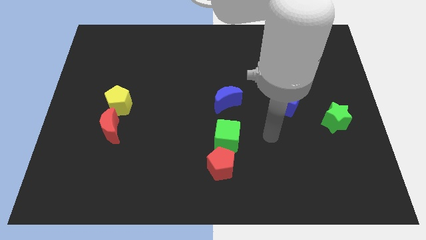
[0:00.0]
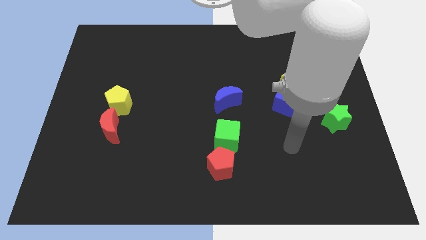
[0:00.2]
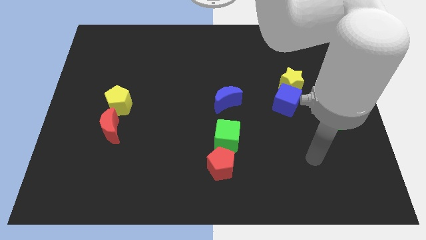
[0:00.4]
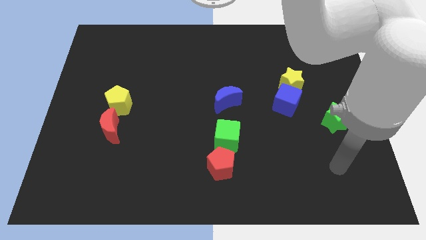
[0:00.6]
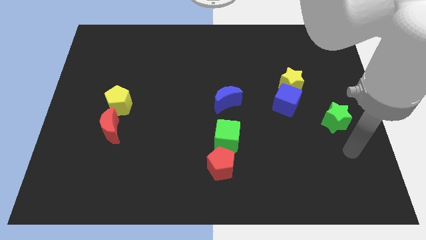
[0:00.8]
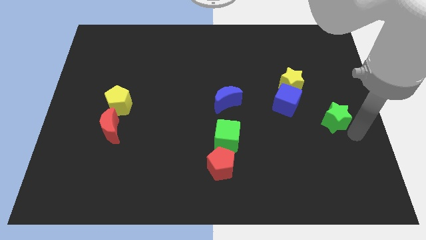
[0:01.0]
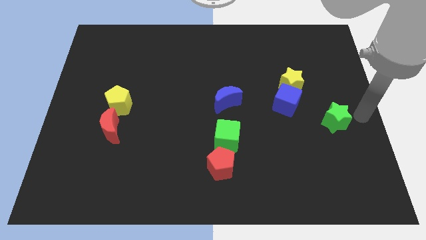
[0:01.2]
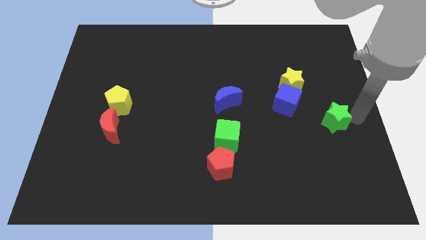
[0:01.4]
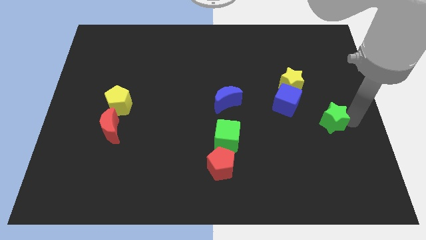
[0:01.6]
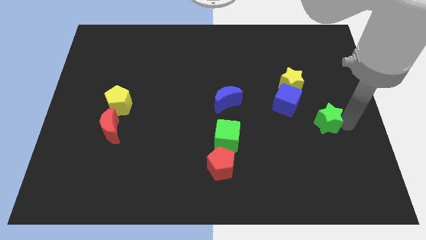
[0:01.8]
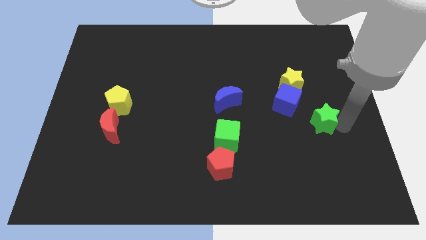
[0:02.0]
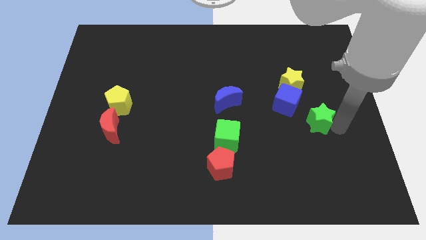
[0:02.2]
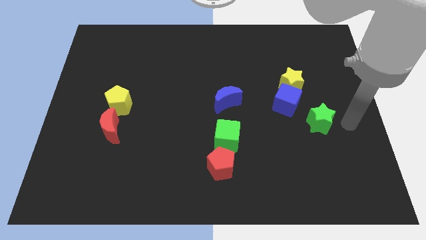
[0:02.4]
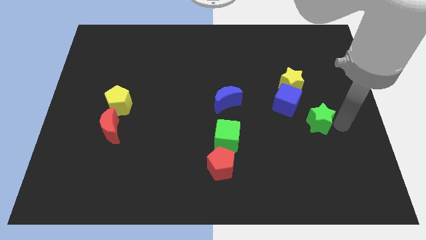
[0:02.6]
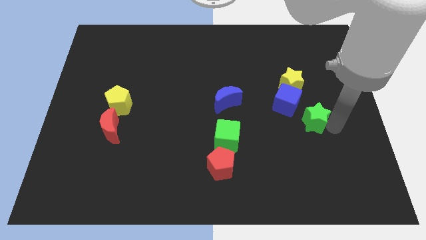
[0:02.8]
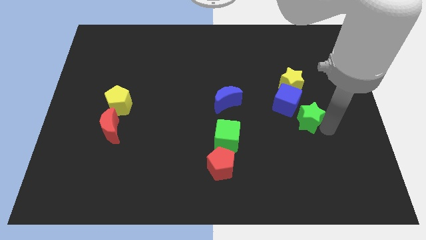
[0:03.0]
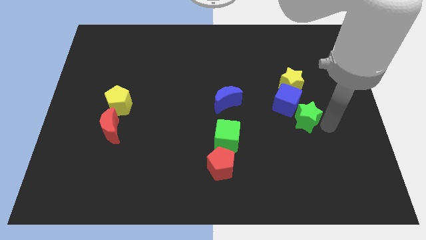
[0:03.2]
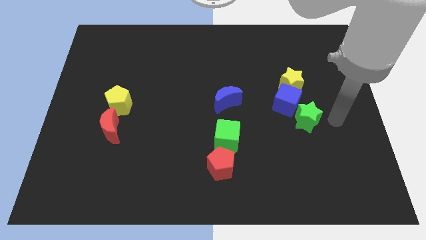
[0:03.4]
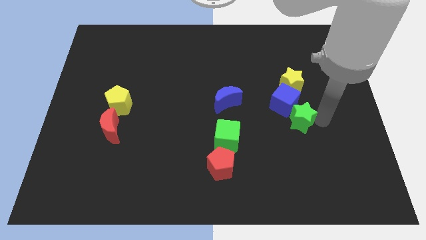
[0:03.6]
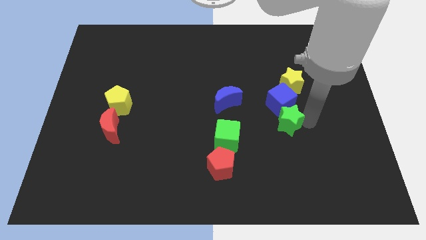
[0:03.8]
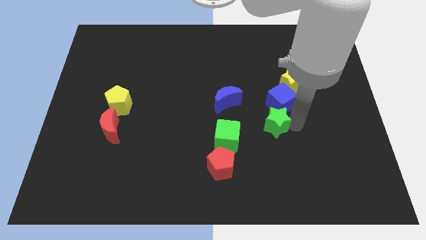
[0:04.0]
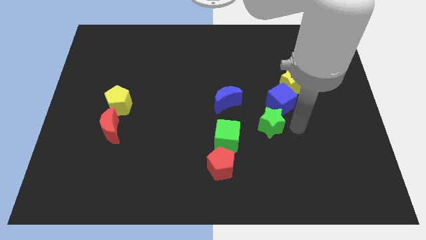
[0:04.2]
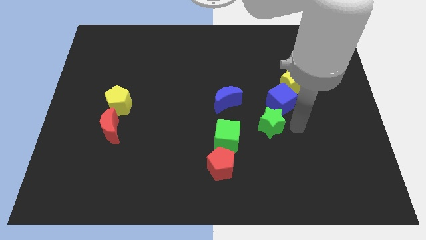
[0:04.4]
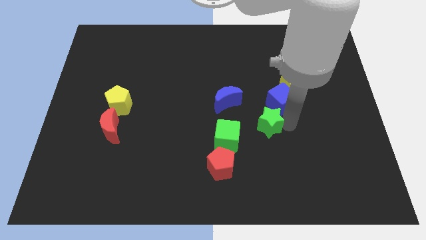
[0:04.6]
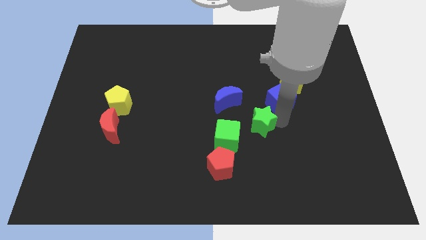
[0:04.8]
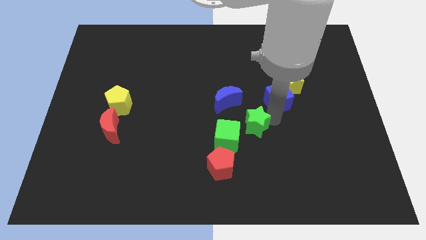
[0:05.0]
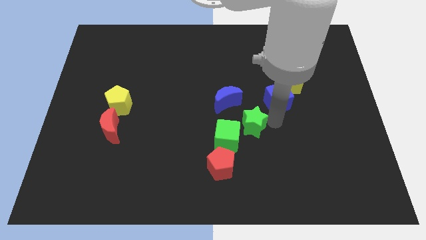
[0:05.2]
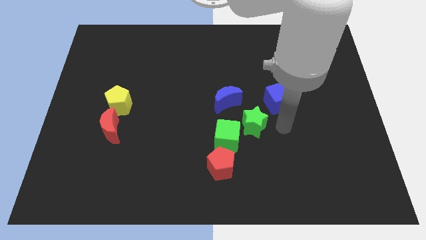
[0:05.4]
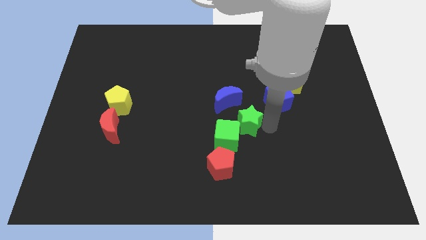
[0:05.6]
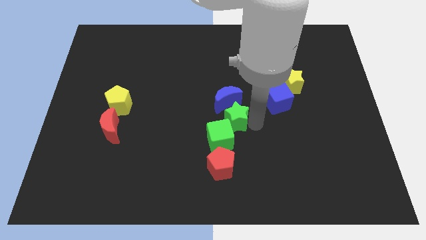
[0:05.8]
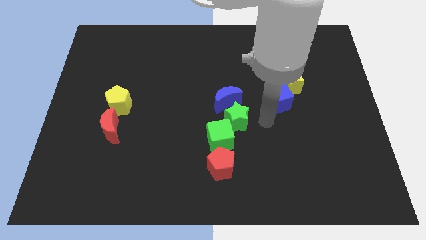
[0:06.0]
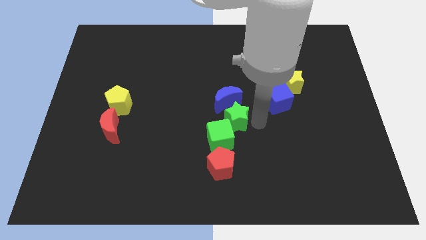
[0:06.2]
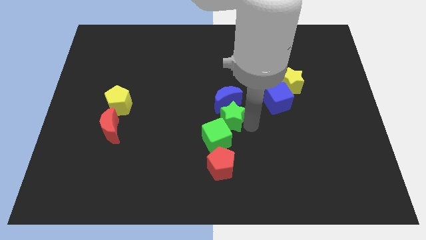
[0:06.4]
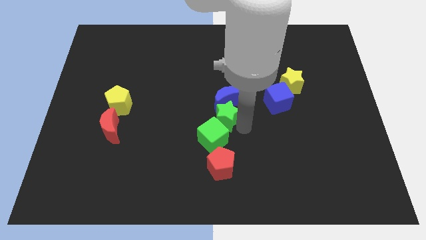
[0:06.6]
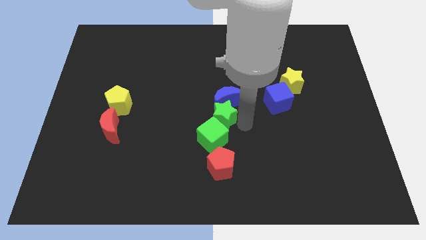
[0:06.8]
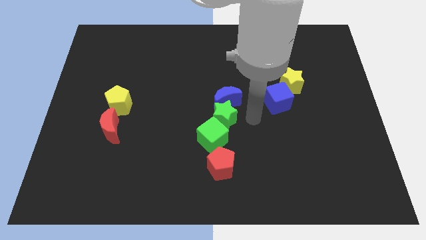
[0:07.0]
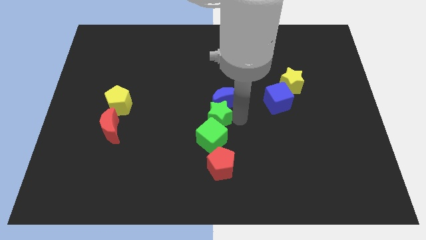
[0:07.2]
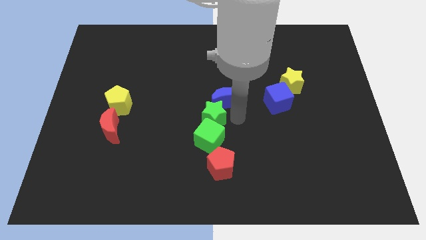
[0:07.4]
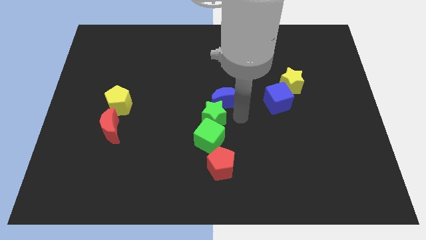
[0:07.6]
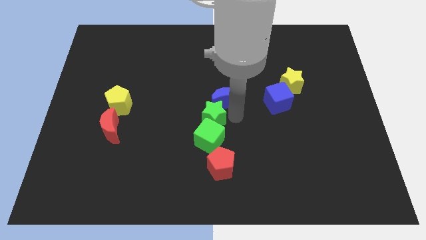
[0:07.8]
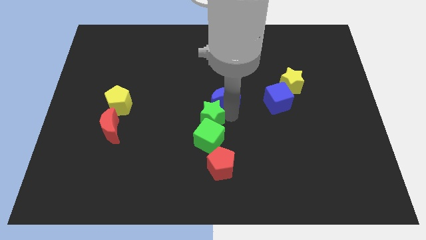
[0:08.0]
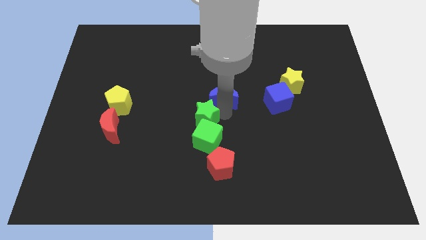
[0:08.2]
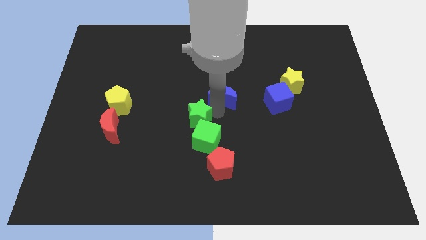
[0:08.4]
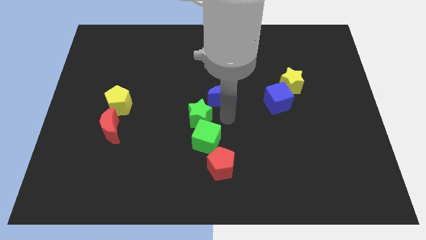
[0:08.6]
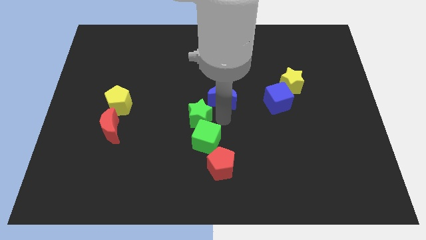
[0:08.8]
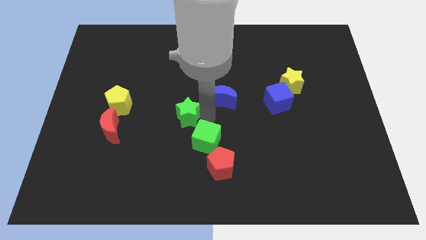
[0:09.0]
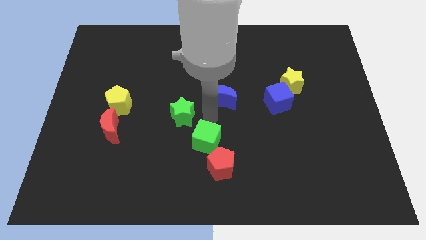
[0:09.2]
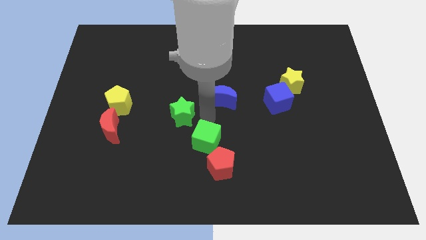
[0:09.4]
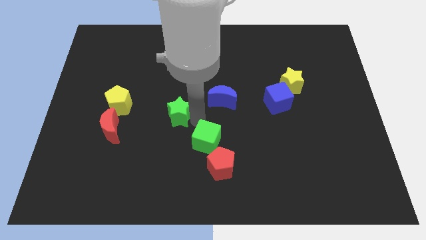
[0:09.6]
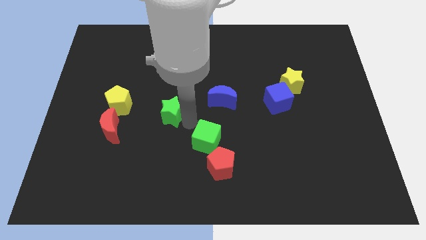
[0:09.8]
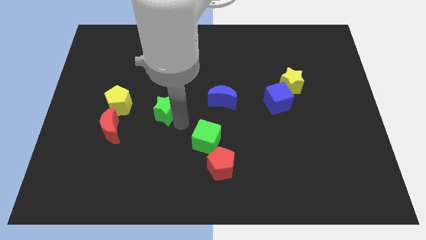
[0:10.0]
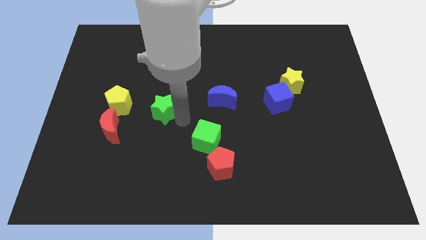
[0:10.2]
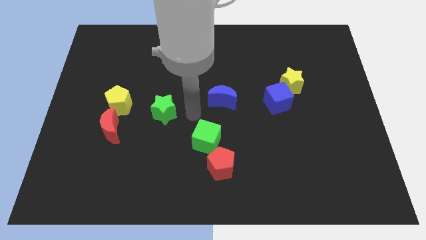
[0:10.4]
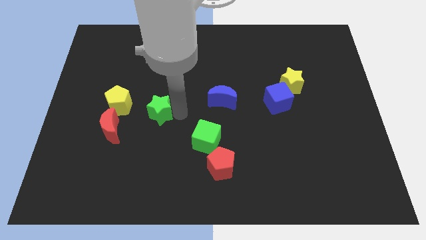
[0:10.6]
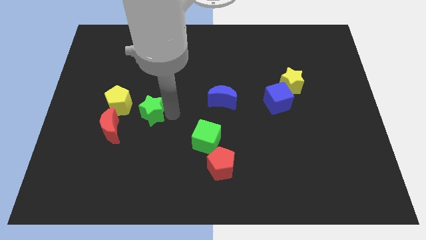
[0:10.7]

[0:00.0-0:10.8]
slide the green star to the top right of the red moon

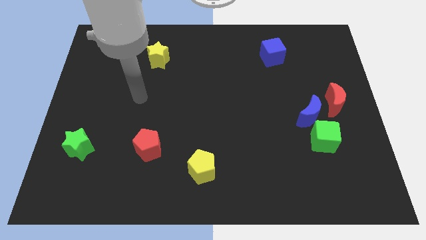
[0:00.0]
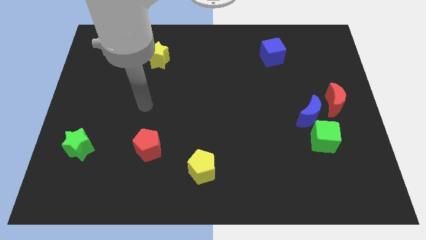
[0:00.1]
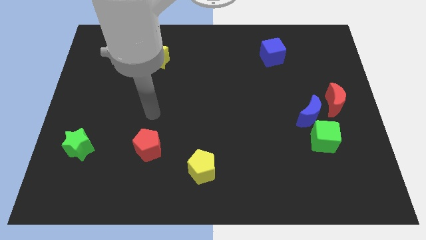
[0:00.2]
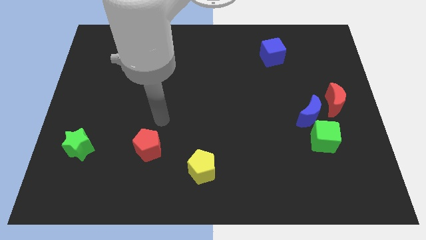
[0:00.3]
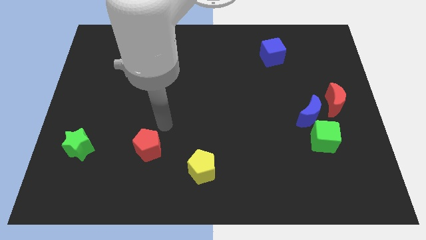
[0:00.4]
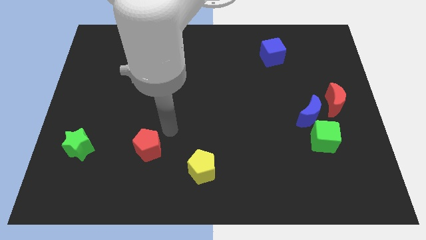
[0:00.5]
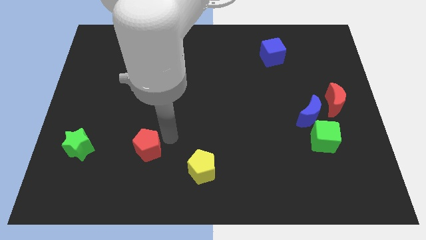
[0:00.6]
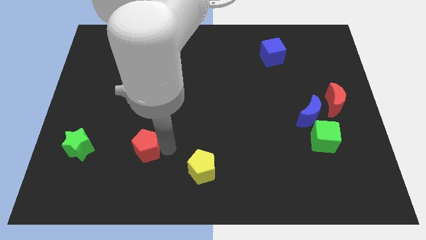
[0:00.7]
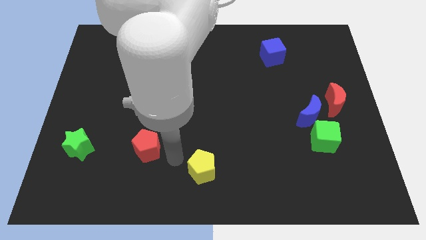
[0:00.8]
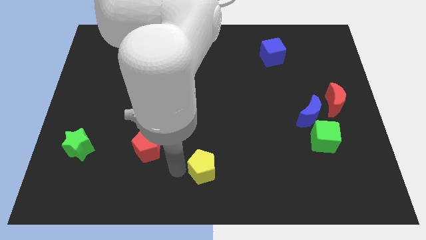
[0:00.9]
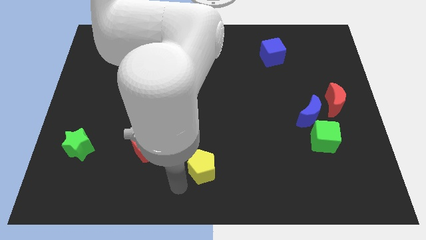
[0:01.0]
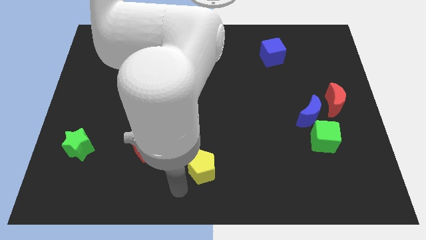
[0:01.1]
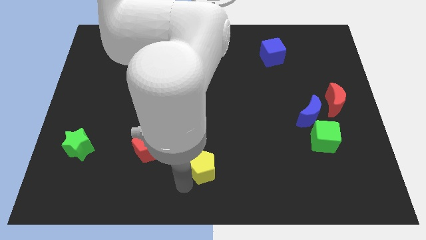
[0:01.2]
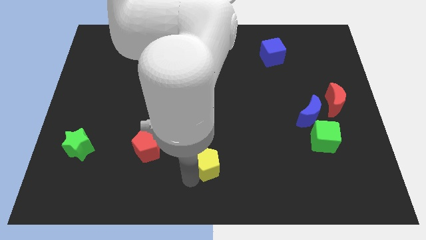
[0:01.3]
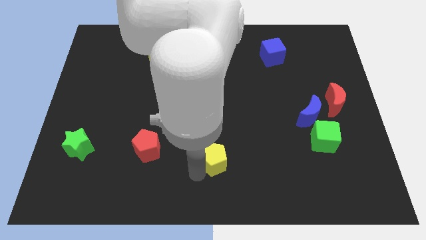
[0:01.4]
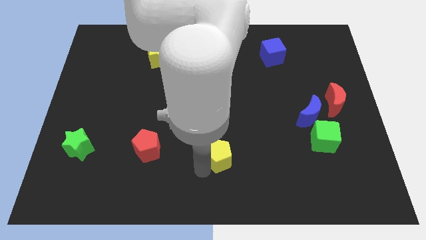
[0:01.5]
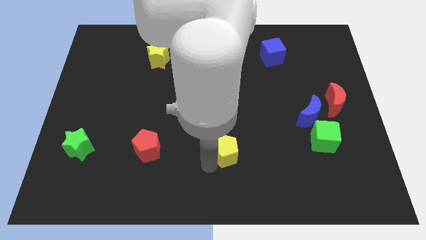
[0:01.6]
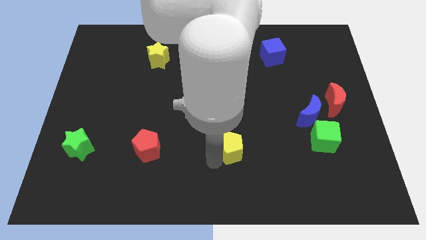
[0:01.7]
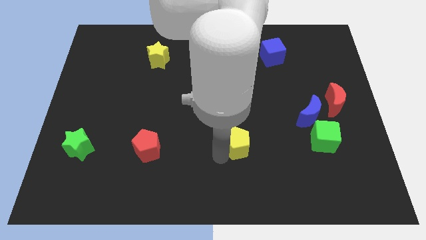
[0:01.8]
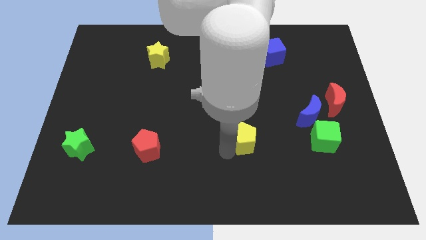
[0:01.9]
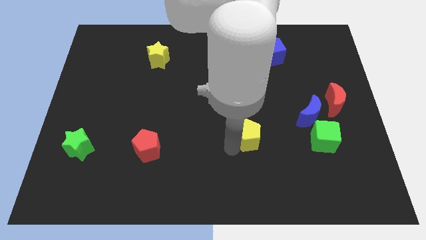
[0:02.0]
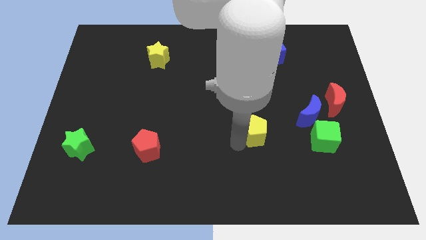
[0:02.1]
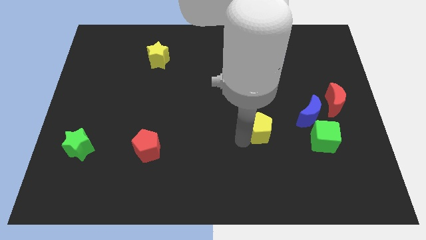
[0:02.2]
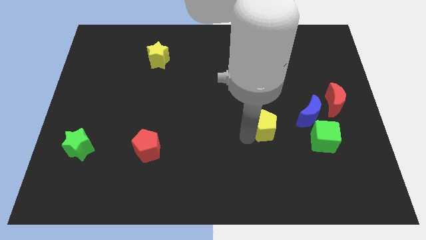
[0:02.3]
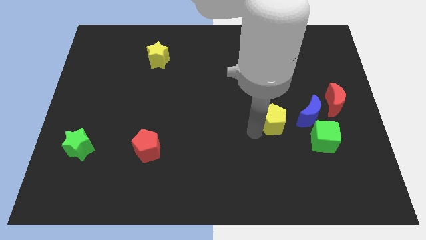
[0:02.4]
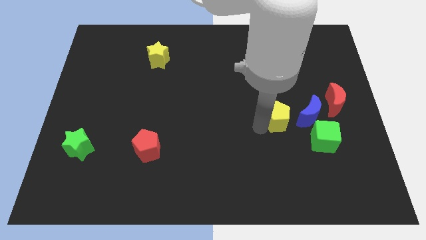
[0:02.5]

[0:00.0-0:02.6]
slide the yellow pentagon diagonally up and to the left of the green cube

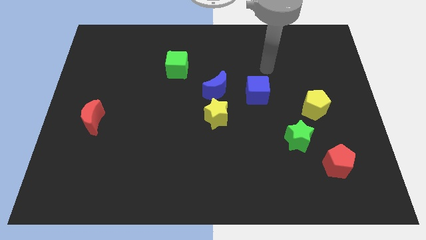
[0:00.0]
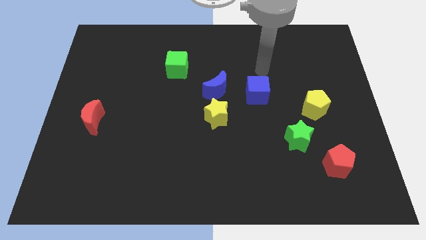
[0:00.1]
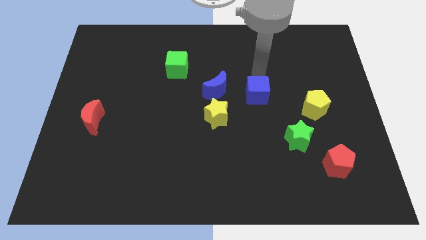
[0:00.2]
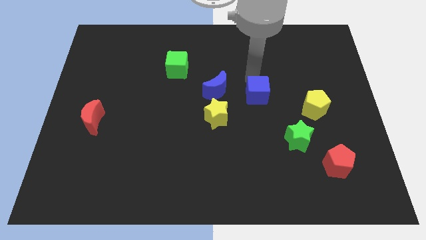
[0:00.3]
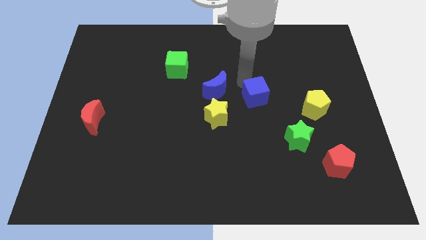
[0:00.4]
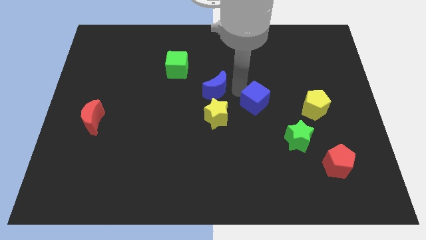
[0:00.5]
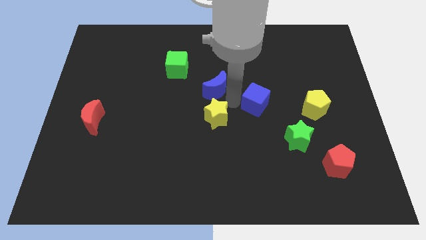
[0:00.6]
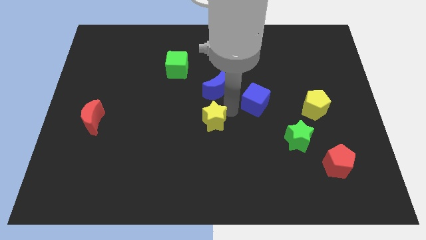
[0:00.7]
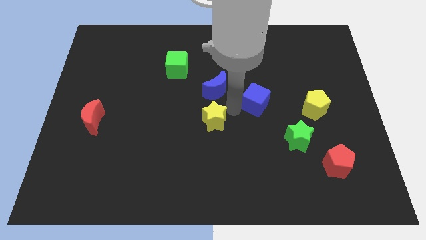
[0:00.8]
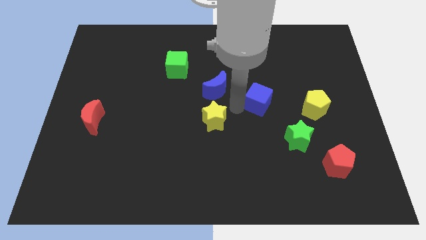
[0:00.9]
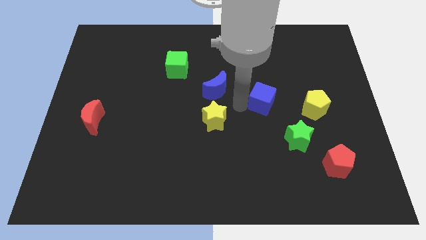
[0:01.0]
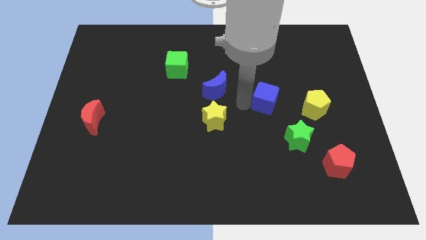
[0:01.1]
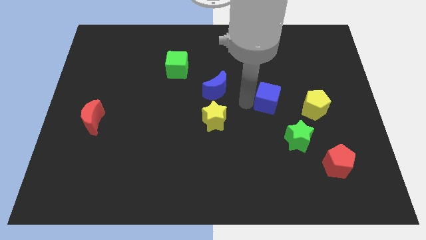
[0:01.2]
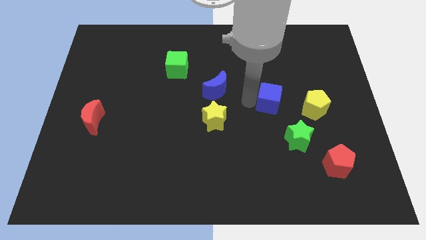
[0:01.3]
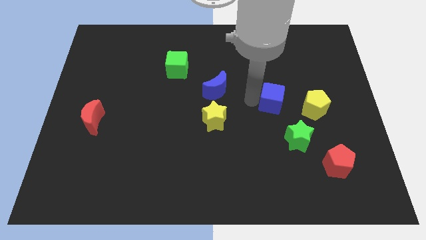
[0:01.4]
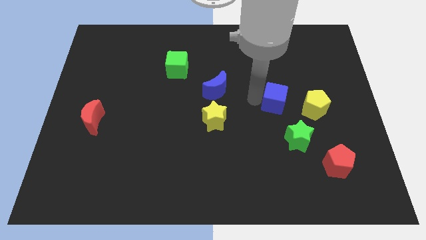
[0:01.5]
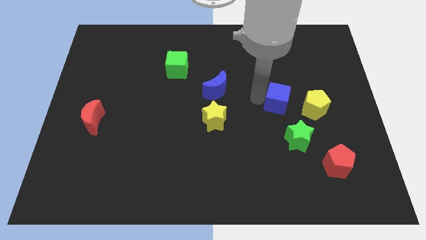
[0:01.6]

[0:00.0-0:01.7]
push the blue cube diagonally up and to the left of the yellow pentagon
